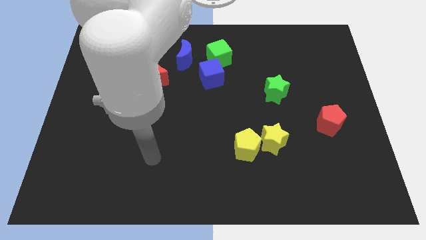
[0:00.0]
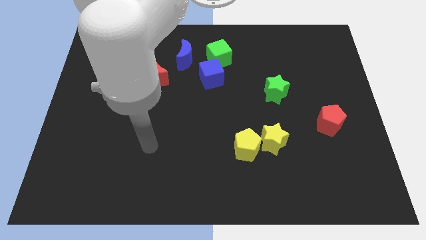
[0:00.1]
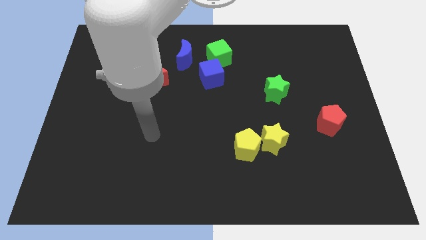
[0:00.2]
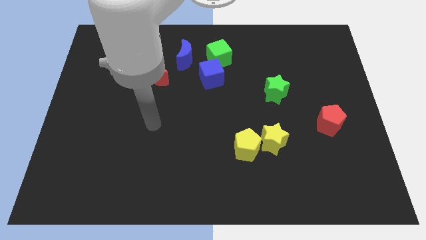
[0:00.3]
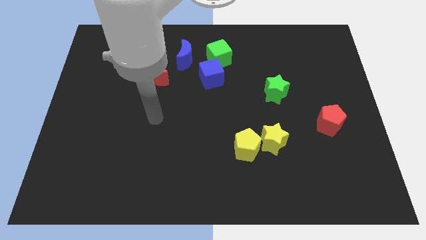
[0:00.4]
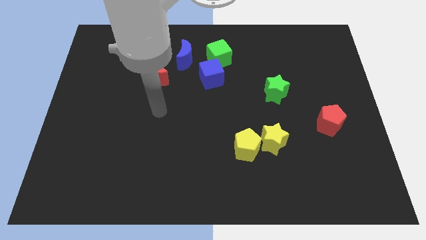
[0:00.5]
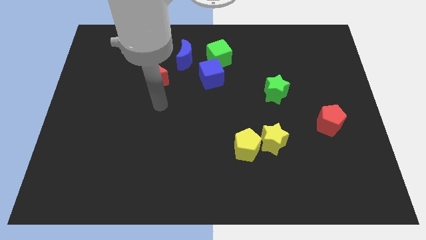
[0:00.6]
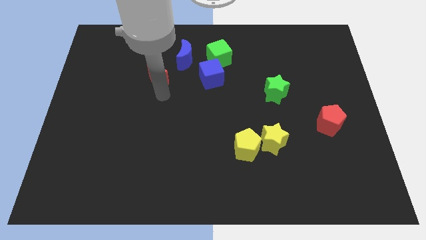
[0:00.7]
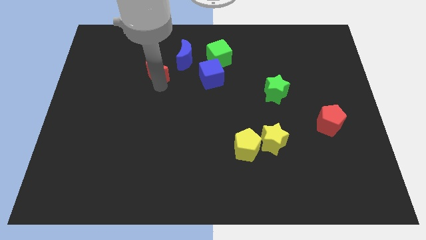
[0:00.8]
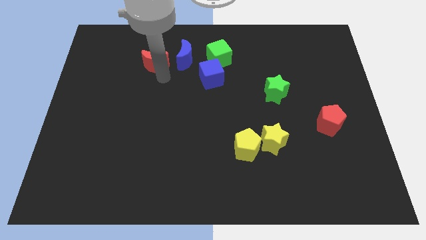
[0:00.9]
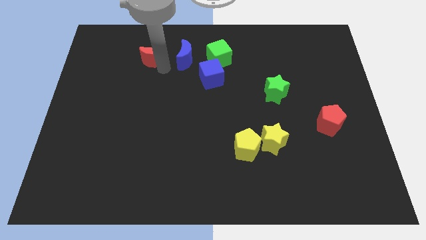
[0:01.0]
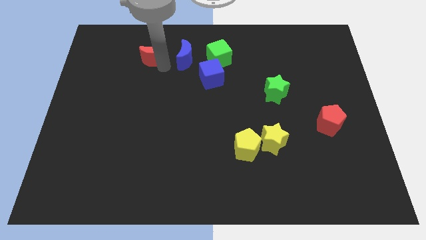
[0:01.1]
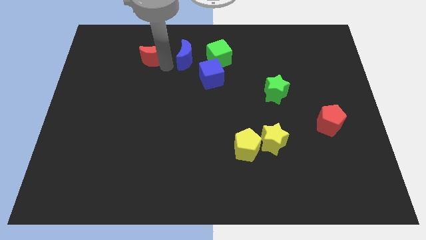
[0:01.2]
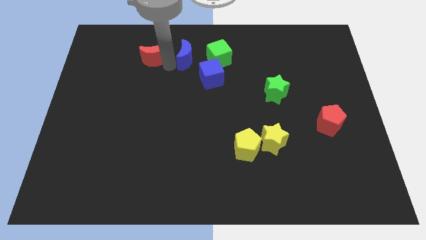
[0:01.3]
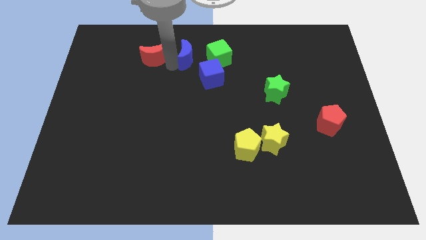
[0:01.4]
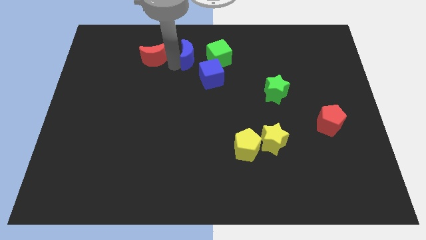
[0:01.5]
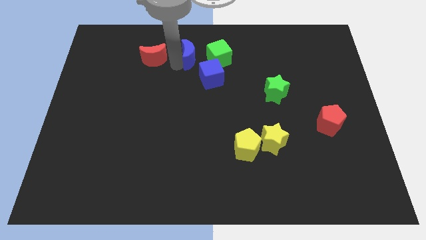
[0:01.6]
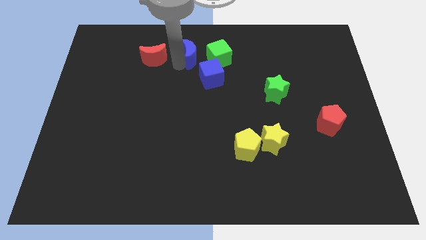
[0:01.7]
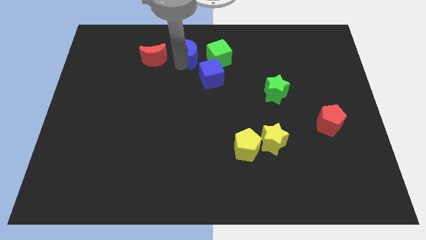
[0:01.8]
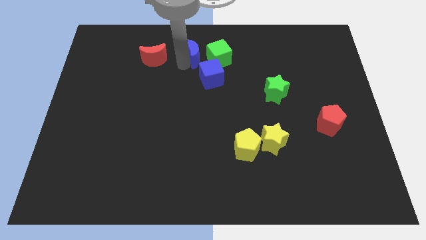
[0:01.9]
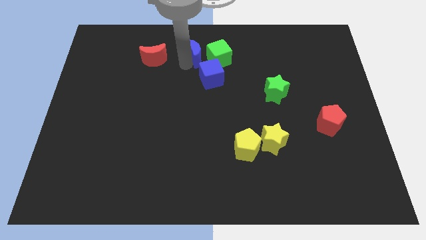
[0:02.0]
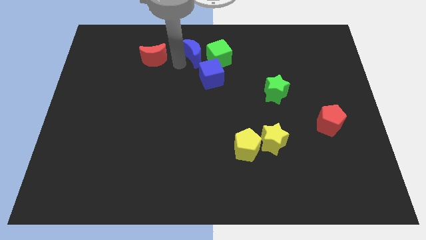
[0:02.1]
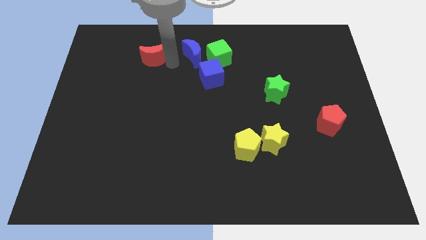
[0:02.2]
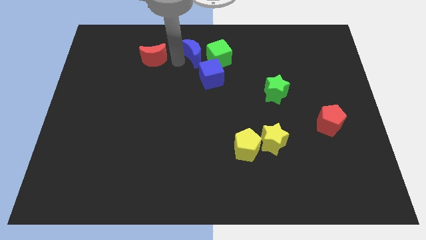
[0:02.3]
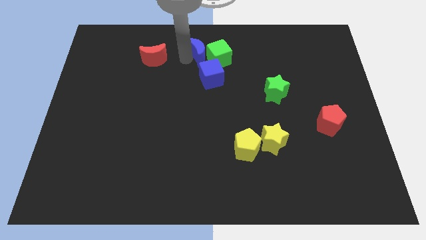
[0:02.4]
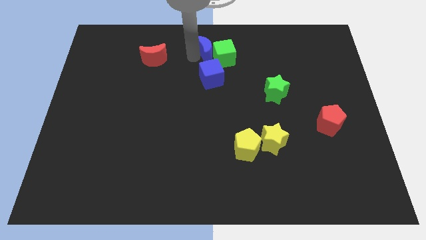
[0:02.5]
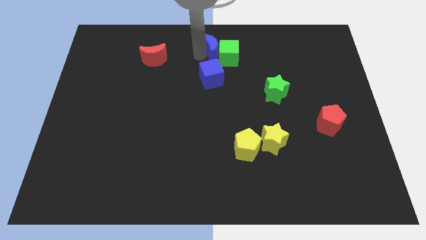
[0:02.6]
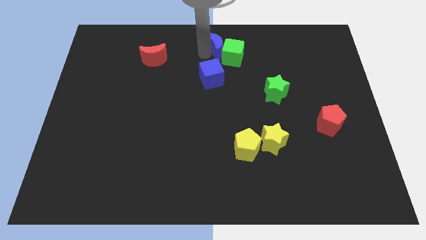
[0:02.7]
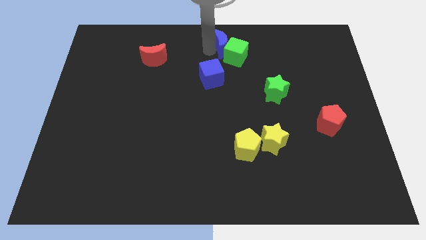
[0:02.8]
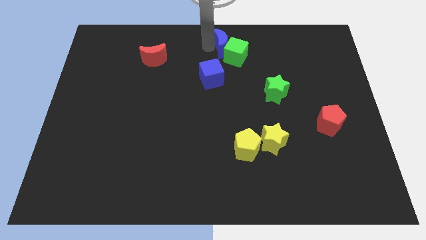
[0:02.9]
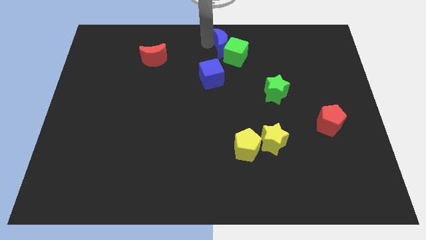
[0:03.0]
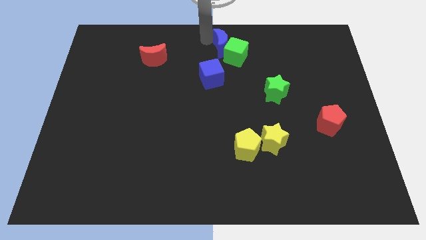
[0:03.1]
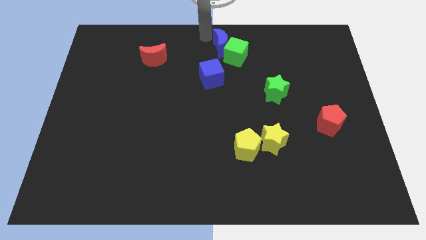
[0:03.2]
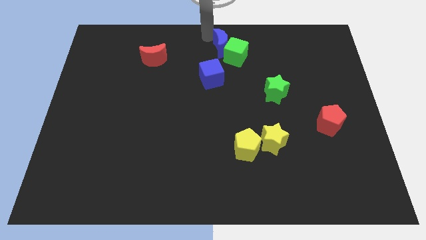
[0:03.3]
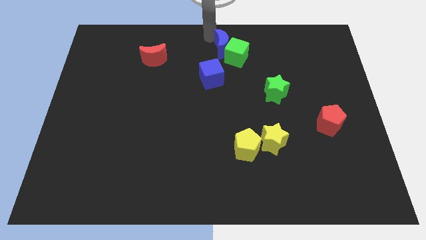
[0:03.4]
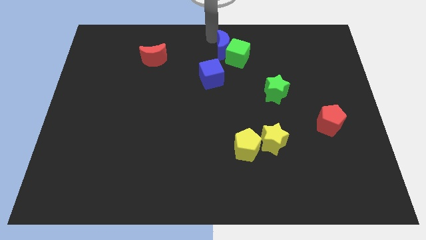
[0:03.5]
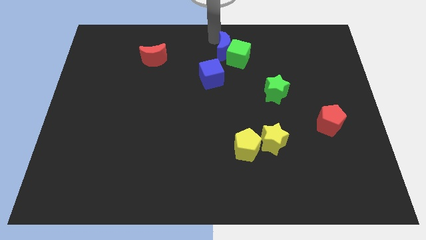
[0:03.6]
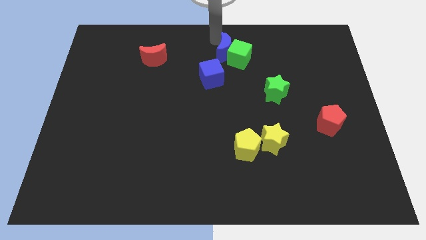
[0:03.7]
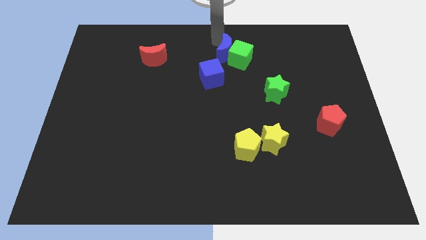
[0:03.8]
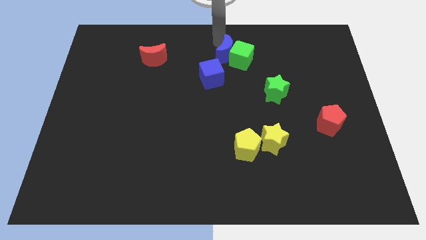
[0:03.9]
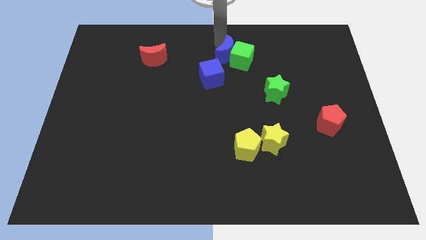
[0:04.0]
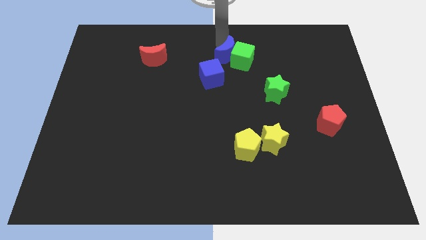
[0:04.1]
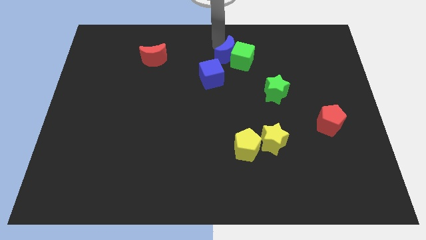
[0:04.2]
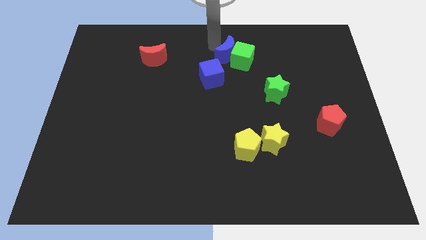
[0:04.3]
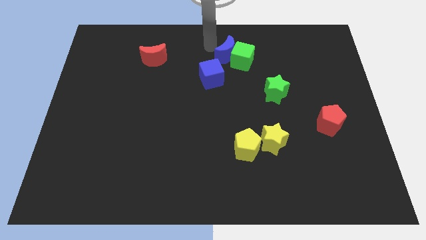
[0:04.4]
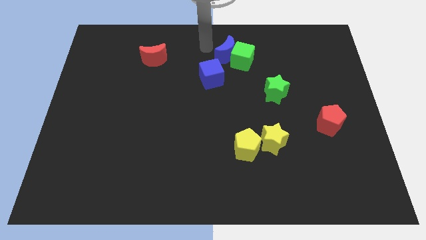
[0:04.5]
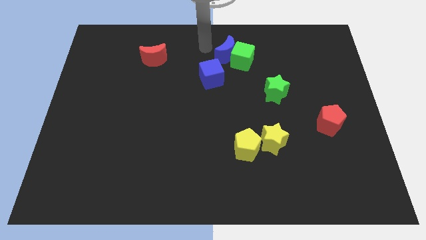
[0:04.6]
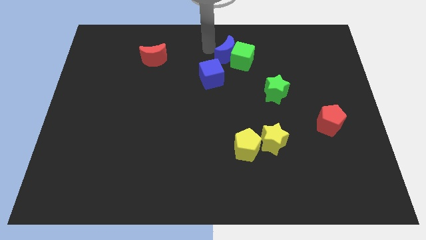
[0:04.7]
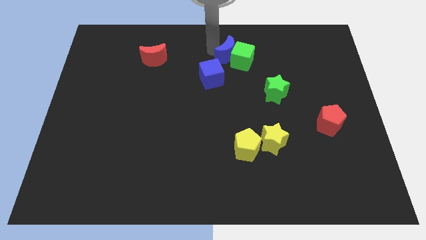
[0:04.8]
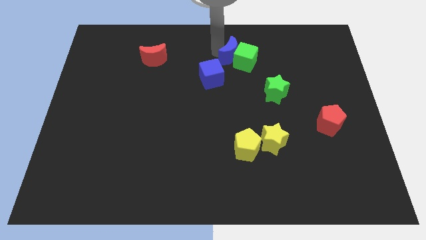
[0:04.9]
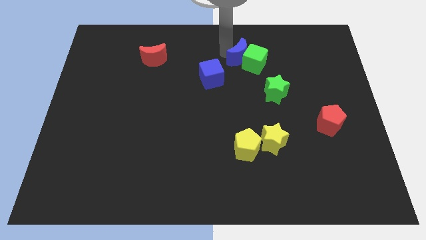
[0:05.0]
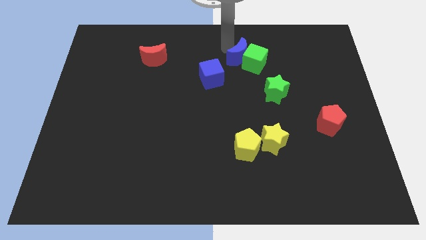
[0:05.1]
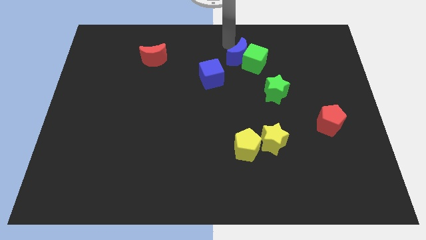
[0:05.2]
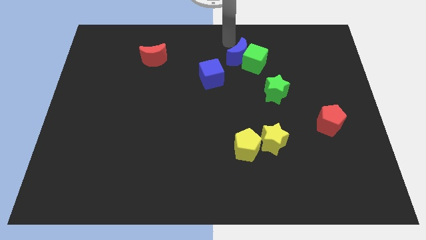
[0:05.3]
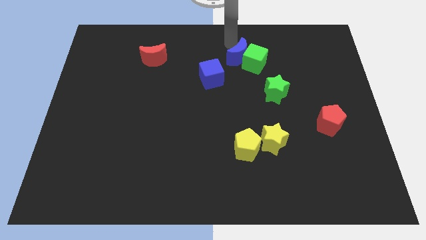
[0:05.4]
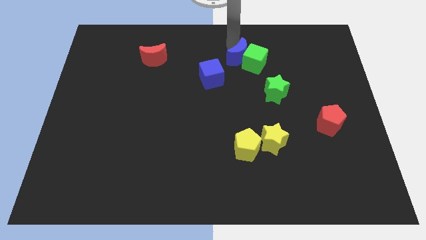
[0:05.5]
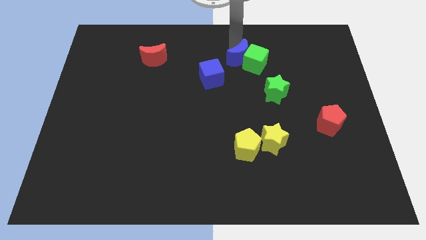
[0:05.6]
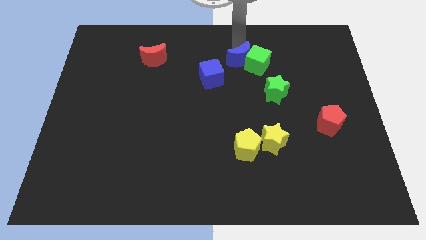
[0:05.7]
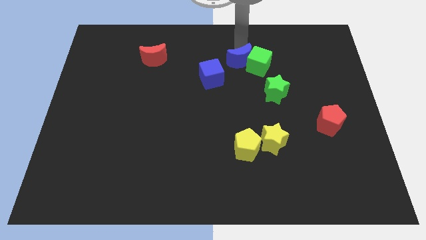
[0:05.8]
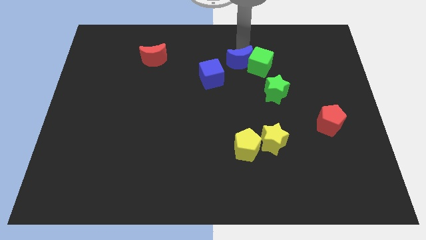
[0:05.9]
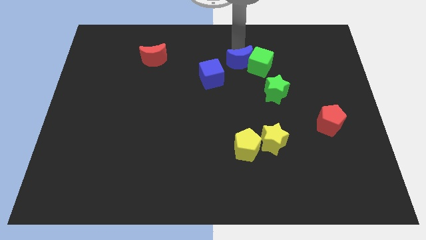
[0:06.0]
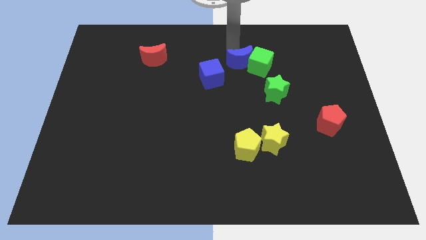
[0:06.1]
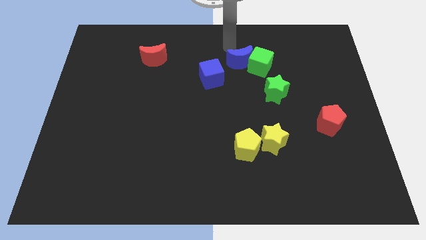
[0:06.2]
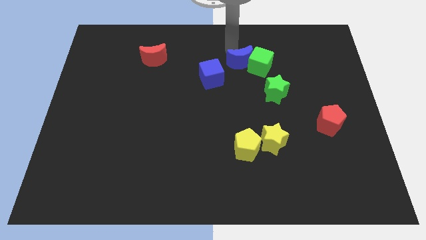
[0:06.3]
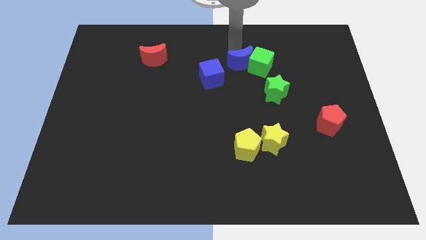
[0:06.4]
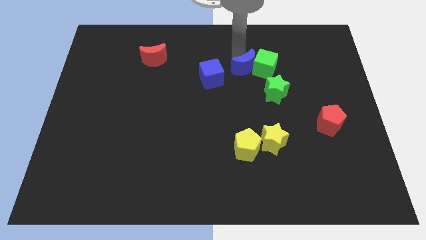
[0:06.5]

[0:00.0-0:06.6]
put the blue moon diagonally up and to the left of the green star

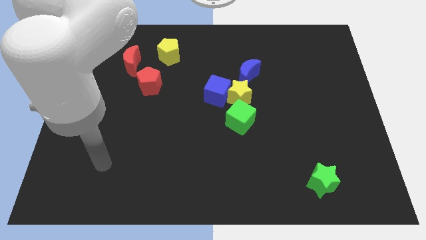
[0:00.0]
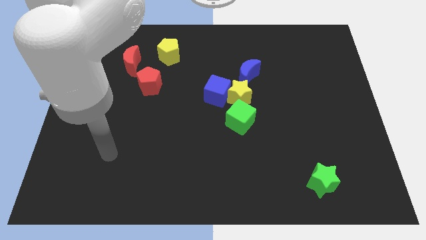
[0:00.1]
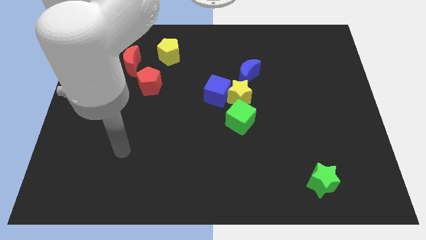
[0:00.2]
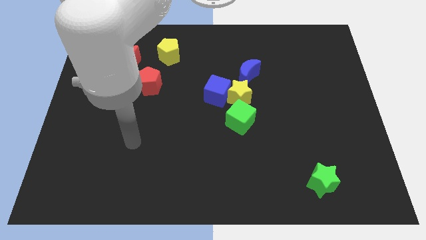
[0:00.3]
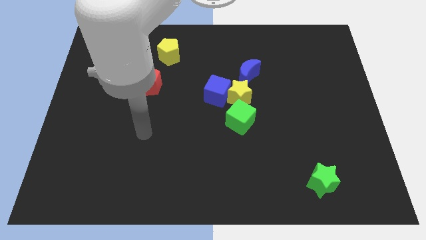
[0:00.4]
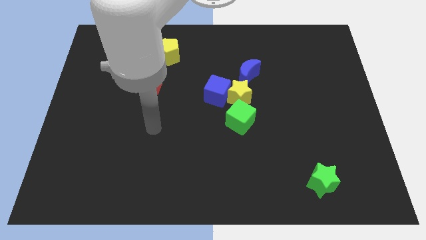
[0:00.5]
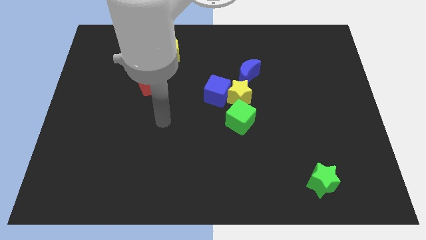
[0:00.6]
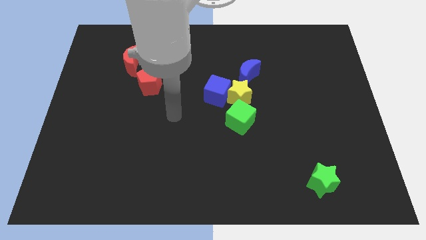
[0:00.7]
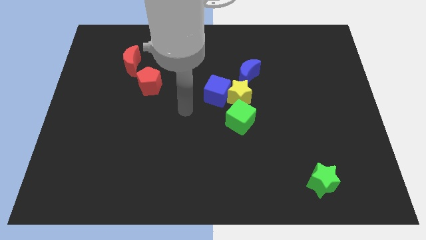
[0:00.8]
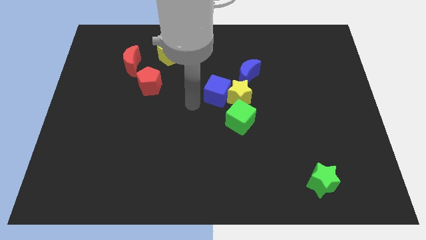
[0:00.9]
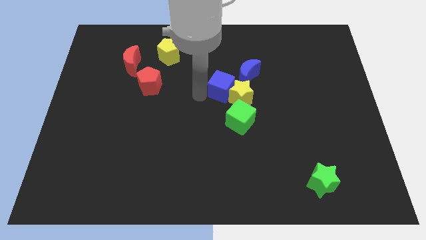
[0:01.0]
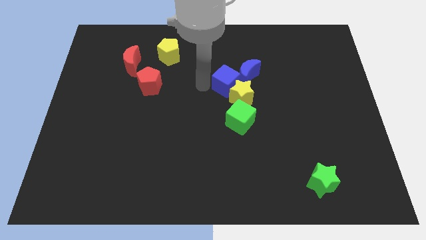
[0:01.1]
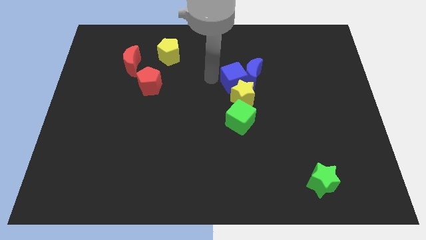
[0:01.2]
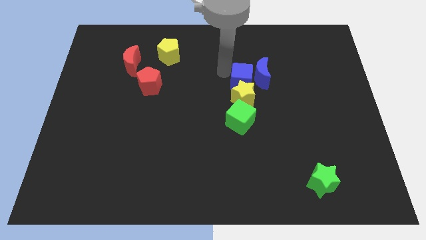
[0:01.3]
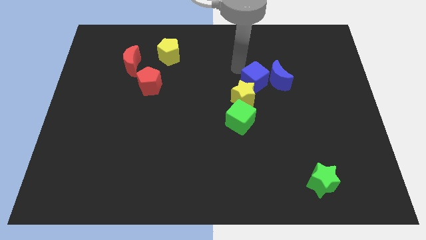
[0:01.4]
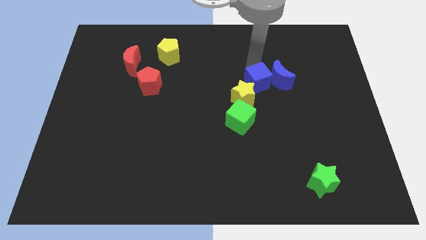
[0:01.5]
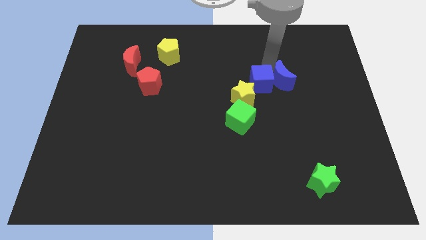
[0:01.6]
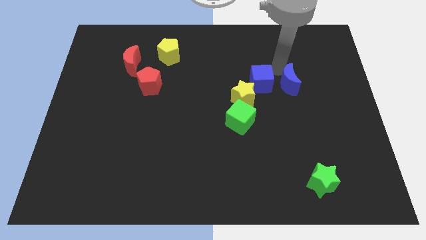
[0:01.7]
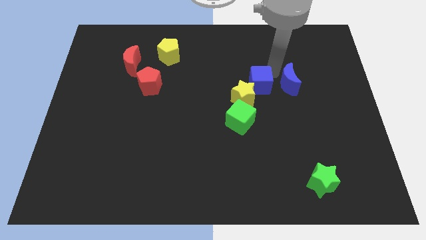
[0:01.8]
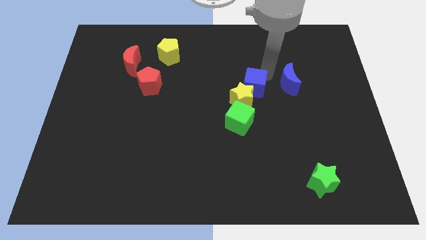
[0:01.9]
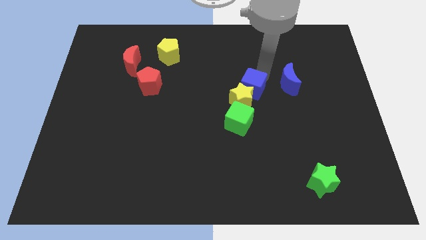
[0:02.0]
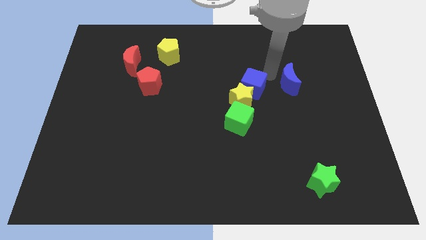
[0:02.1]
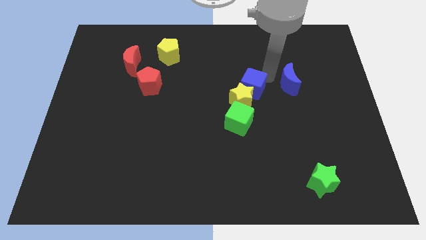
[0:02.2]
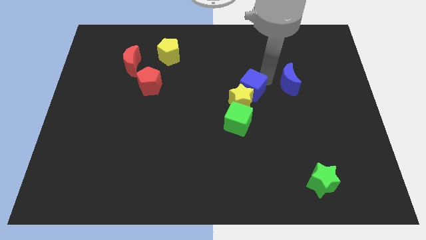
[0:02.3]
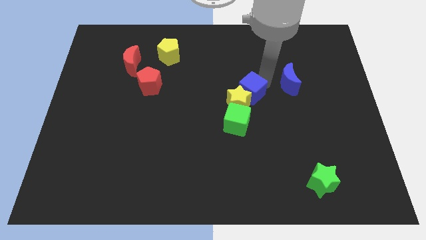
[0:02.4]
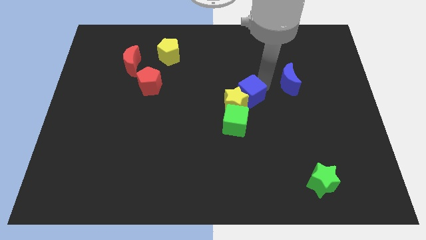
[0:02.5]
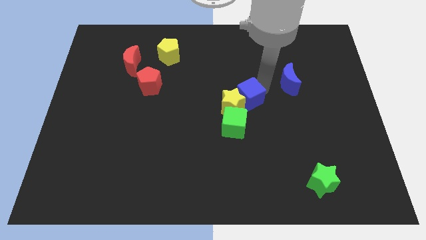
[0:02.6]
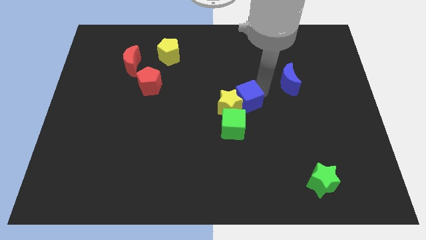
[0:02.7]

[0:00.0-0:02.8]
push the blue cube to the bottom right of the yellow star
